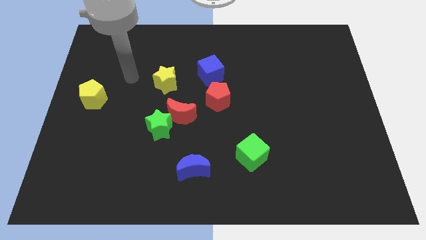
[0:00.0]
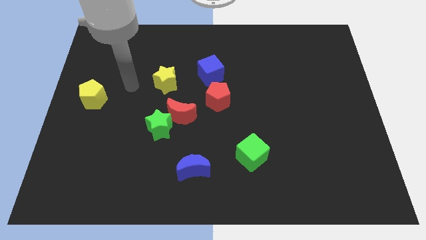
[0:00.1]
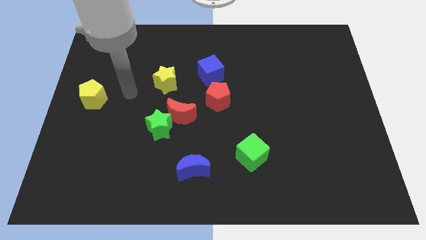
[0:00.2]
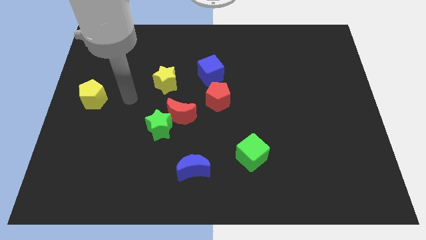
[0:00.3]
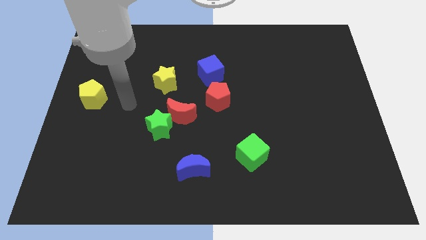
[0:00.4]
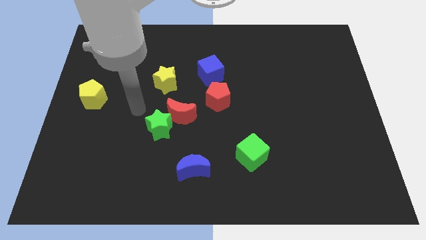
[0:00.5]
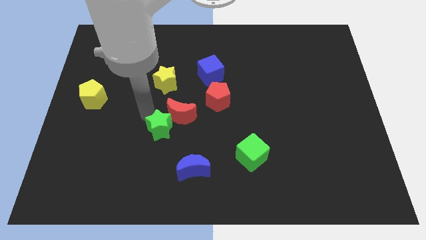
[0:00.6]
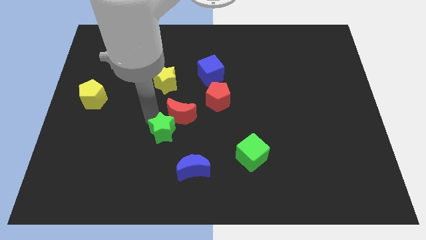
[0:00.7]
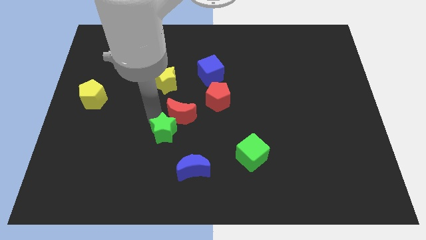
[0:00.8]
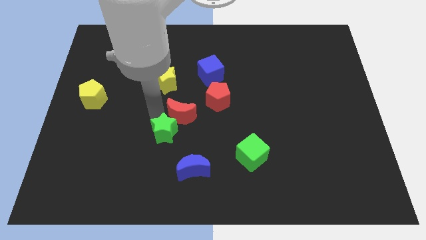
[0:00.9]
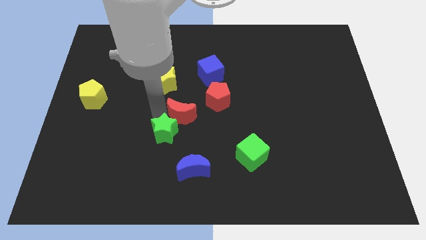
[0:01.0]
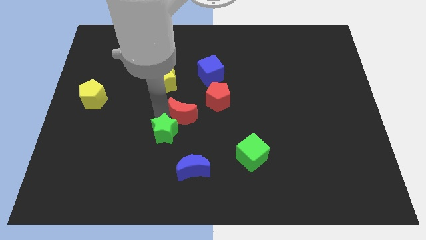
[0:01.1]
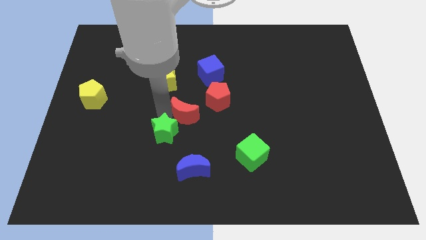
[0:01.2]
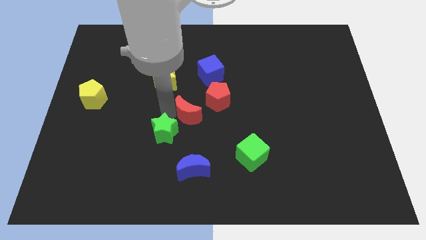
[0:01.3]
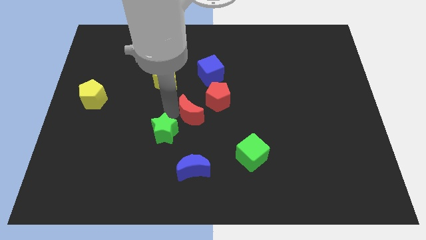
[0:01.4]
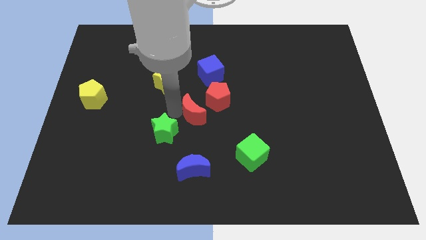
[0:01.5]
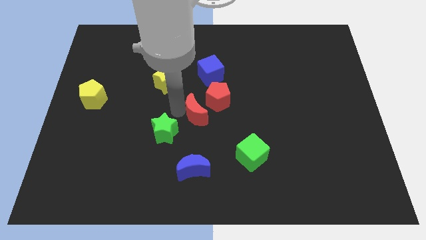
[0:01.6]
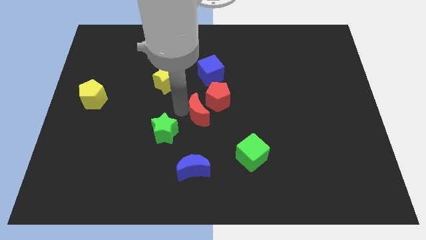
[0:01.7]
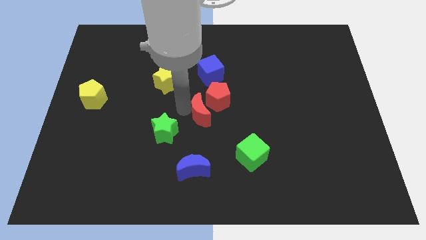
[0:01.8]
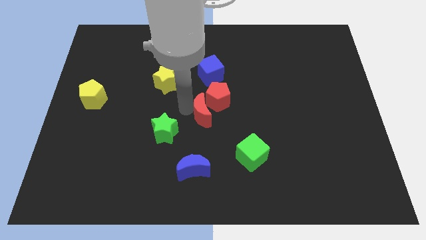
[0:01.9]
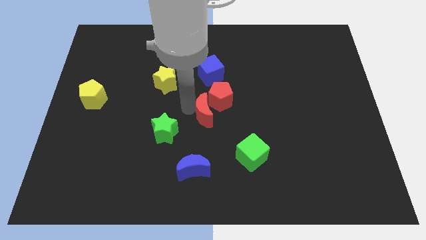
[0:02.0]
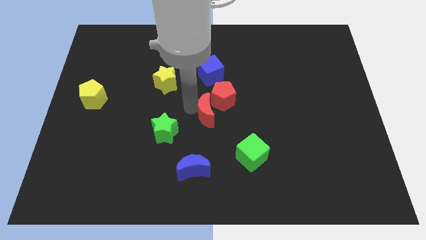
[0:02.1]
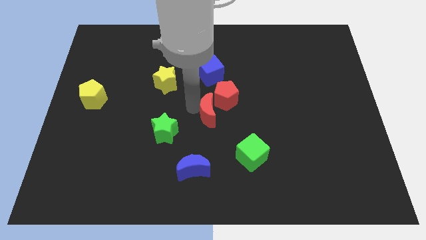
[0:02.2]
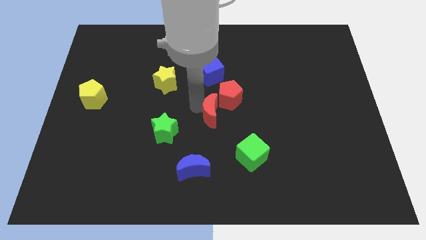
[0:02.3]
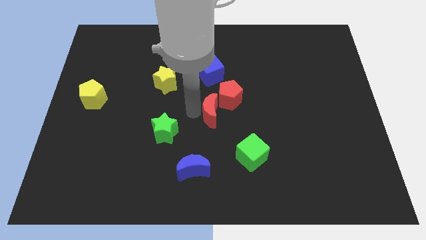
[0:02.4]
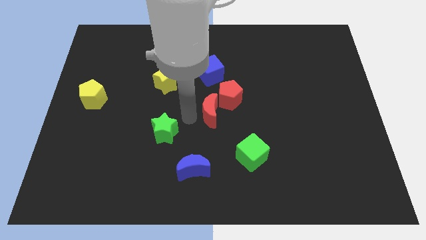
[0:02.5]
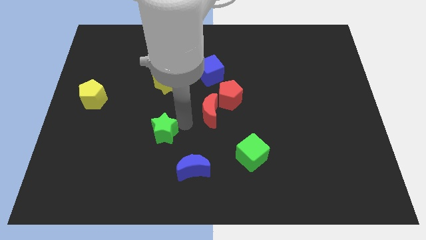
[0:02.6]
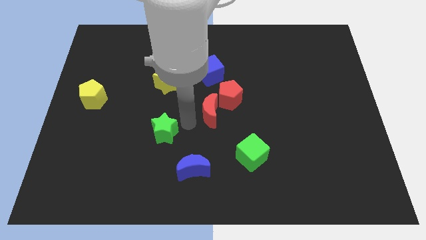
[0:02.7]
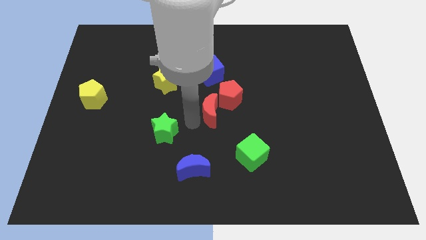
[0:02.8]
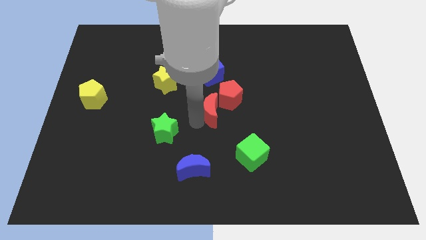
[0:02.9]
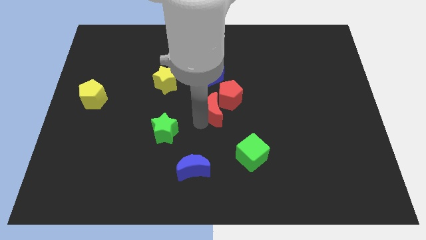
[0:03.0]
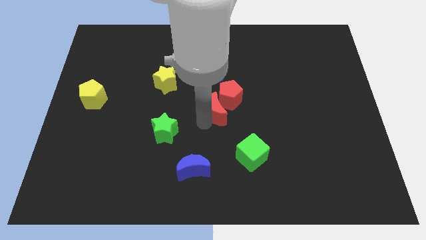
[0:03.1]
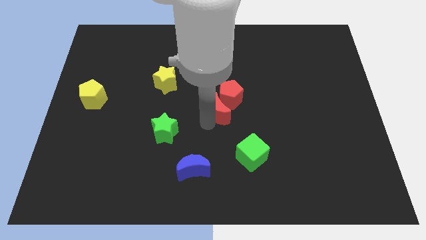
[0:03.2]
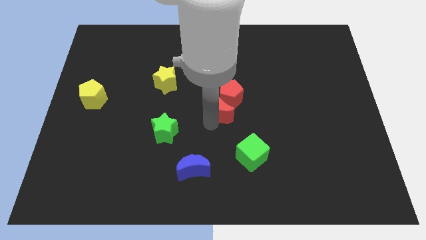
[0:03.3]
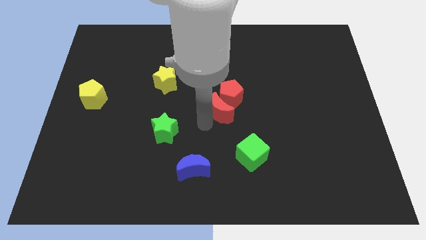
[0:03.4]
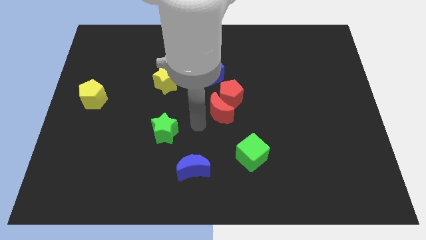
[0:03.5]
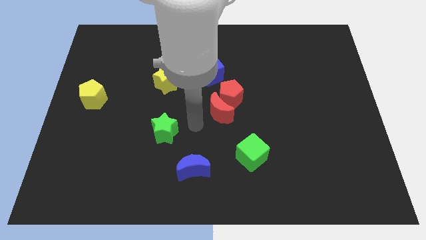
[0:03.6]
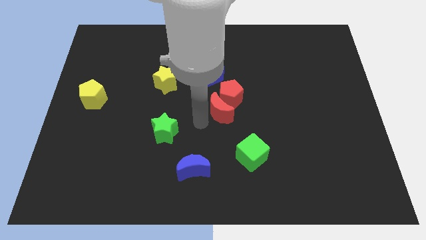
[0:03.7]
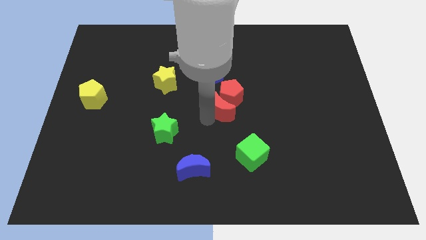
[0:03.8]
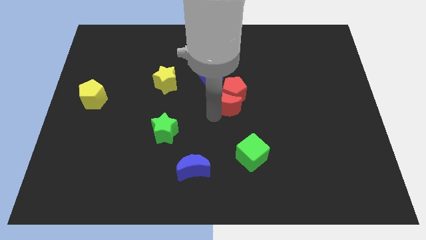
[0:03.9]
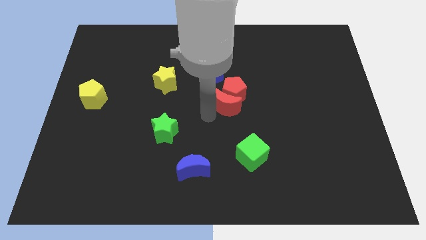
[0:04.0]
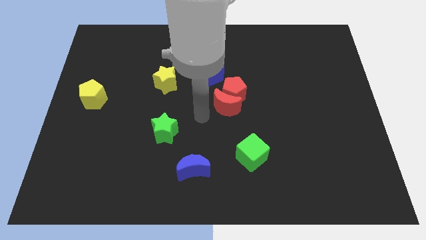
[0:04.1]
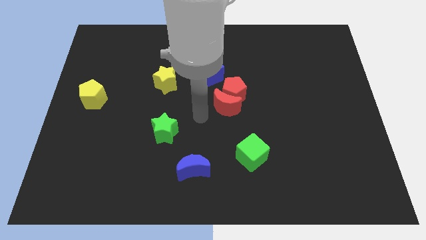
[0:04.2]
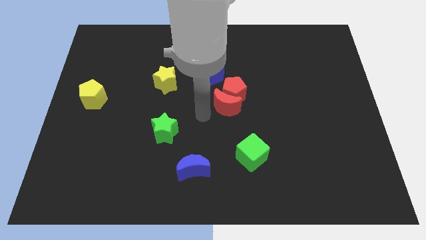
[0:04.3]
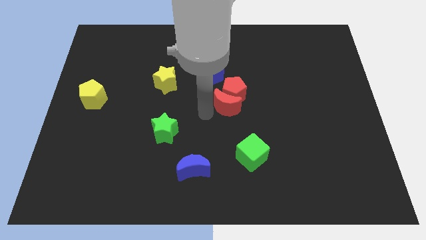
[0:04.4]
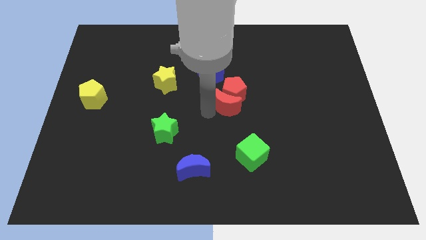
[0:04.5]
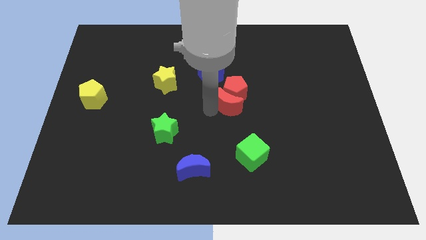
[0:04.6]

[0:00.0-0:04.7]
slide the red moon diagonally down and to the right of the blue cube

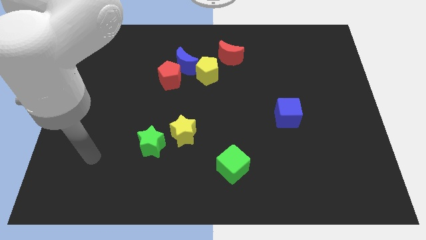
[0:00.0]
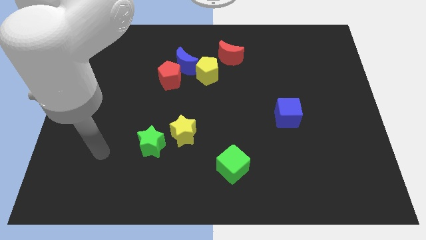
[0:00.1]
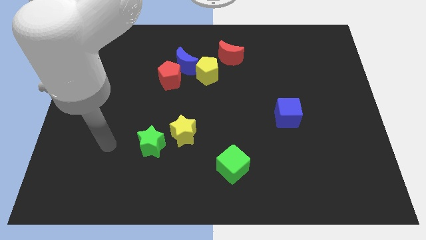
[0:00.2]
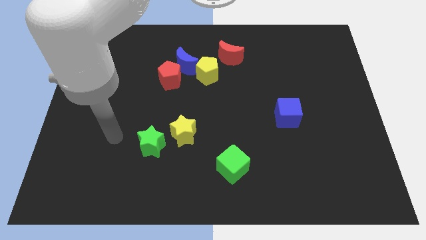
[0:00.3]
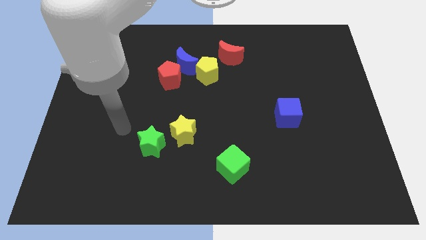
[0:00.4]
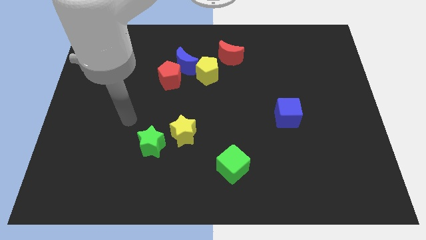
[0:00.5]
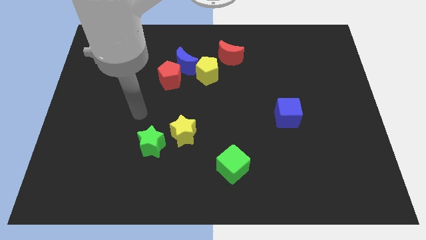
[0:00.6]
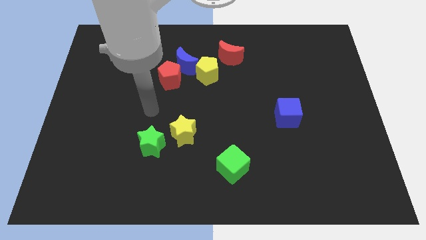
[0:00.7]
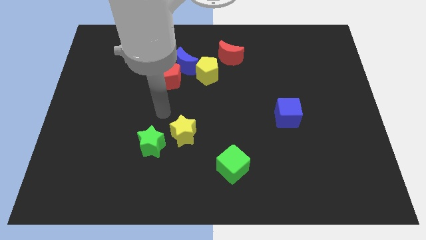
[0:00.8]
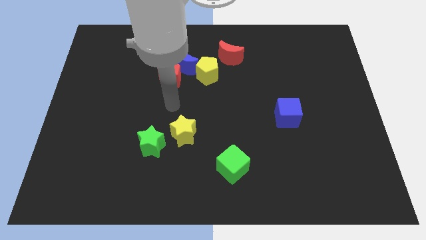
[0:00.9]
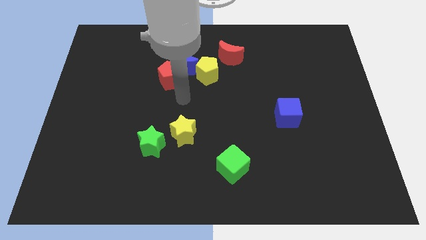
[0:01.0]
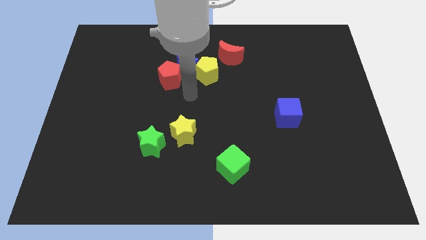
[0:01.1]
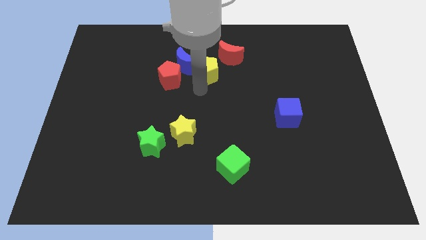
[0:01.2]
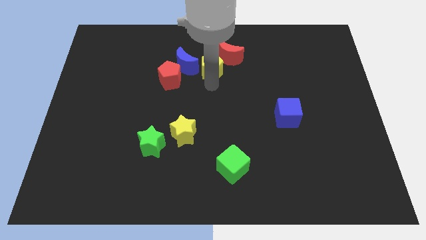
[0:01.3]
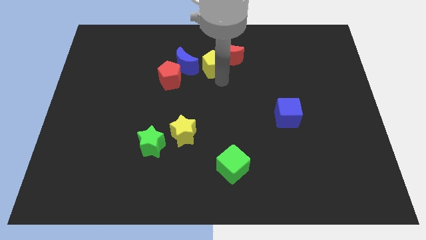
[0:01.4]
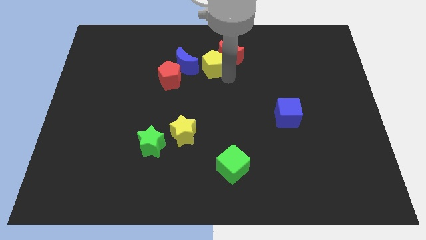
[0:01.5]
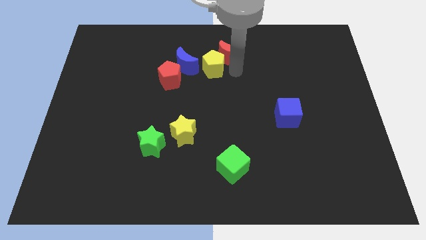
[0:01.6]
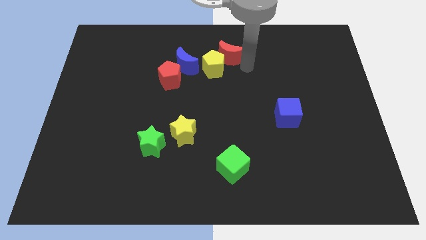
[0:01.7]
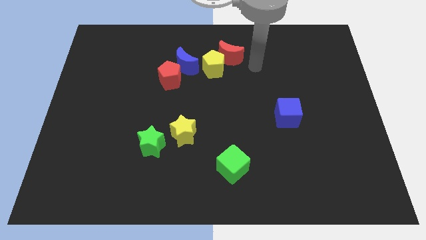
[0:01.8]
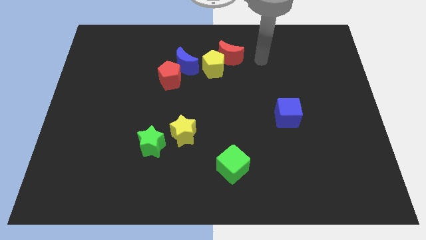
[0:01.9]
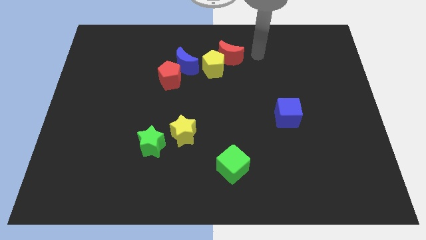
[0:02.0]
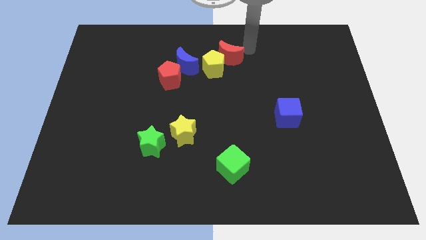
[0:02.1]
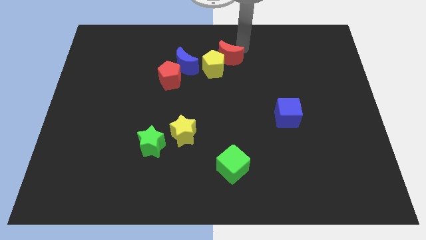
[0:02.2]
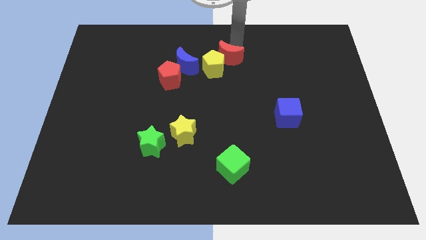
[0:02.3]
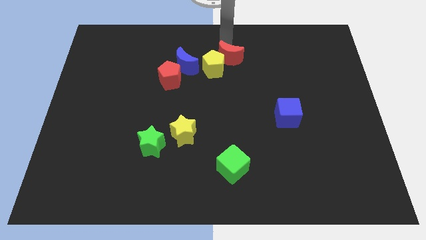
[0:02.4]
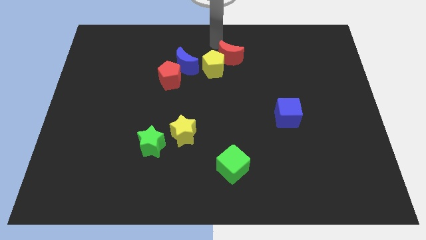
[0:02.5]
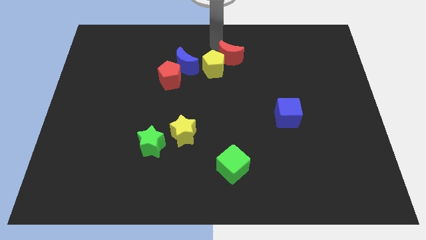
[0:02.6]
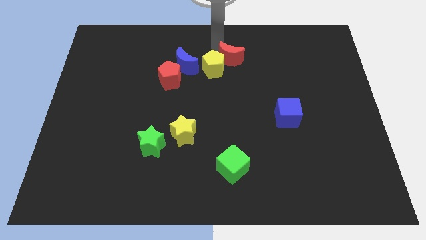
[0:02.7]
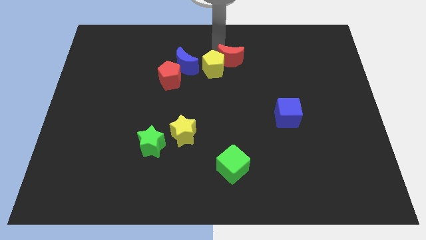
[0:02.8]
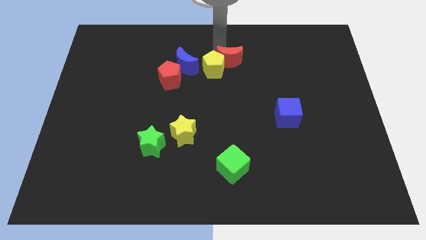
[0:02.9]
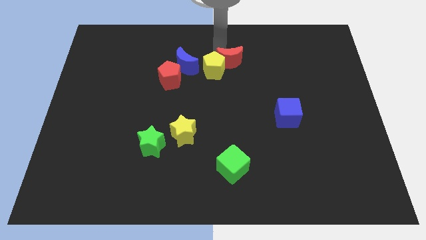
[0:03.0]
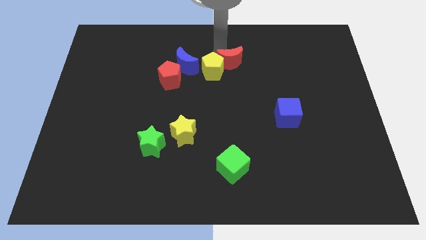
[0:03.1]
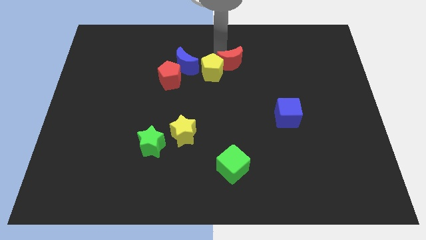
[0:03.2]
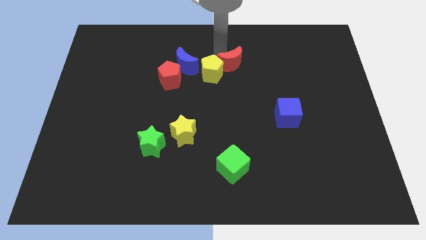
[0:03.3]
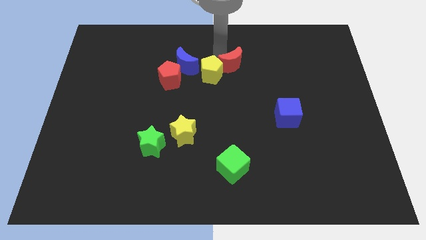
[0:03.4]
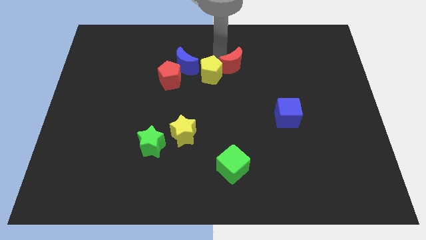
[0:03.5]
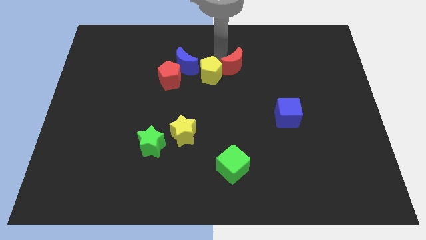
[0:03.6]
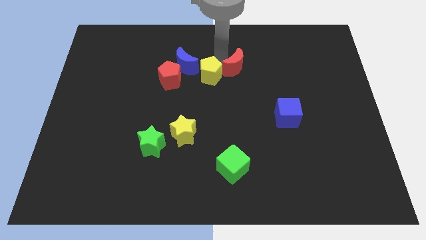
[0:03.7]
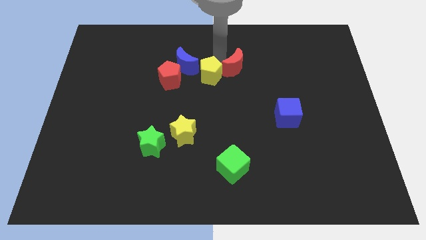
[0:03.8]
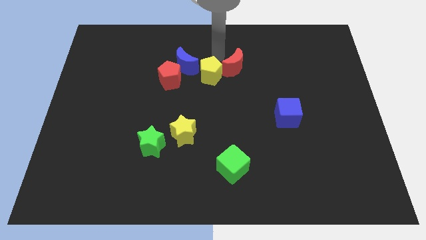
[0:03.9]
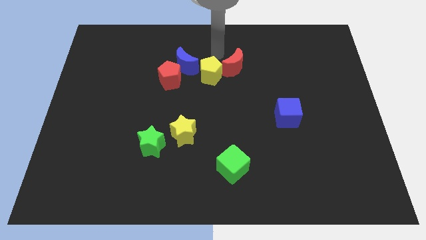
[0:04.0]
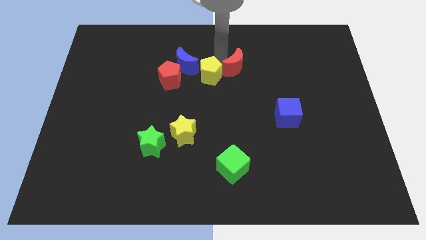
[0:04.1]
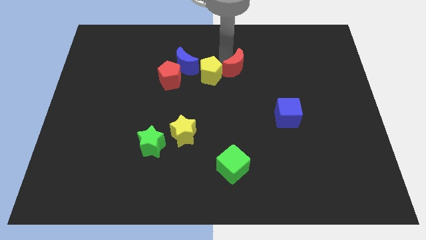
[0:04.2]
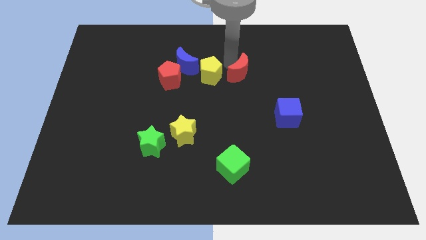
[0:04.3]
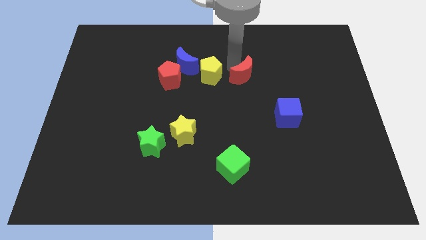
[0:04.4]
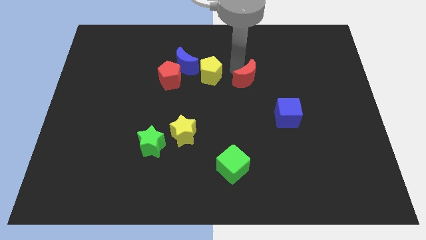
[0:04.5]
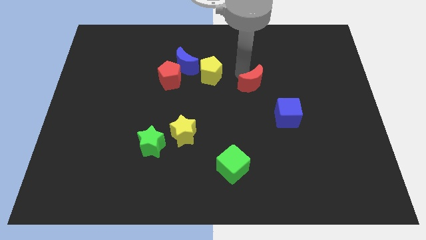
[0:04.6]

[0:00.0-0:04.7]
put the red moon to the top left side of the blue cube
